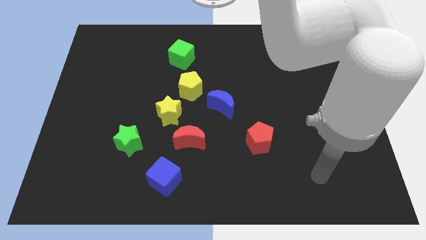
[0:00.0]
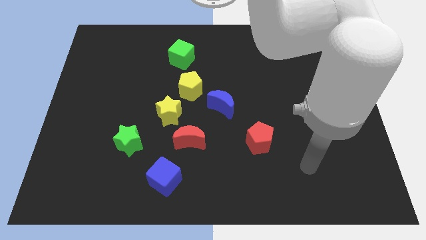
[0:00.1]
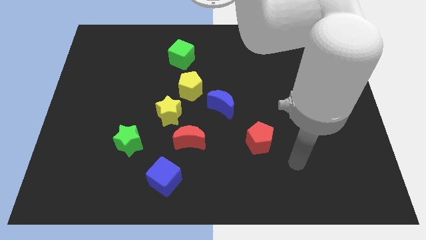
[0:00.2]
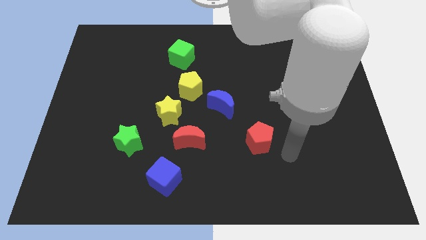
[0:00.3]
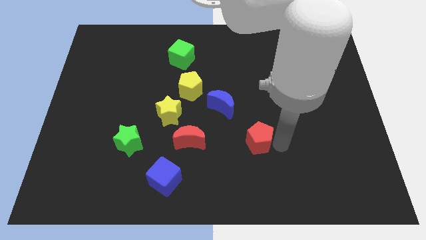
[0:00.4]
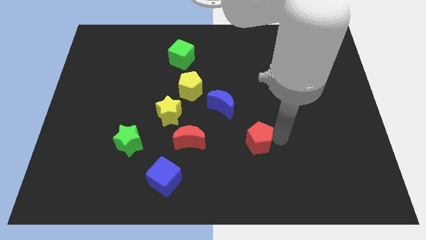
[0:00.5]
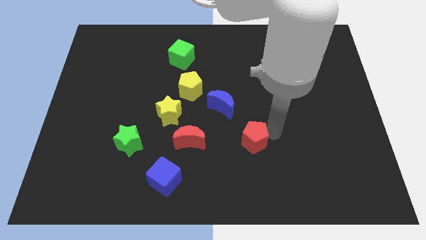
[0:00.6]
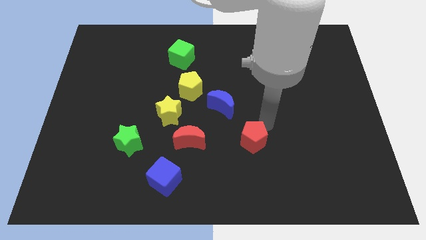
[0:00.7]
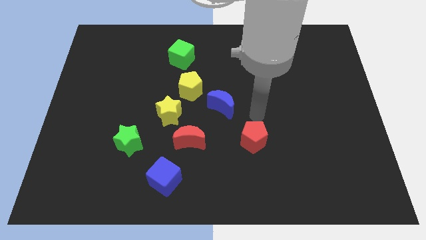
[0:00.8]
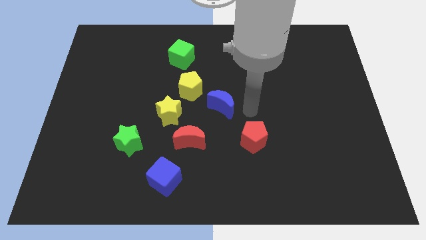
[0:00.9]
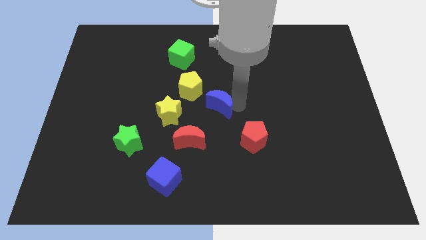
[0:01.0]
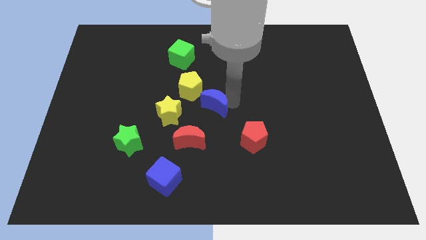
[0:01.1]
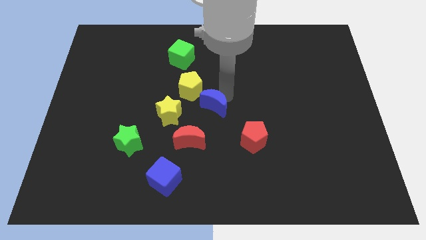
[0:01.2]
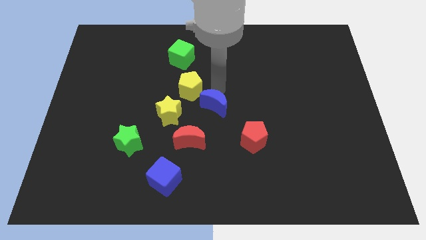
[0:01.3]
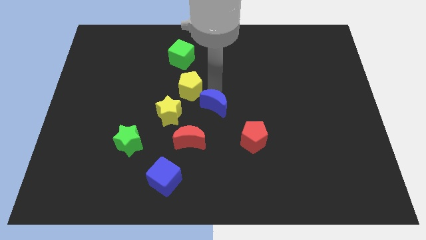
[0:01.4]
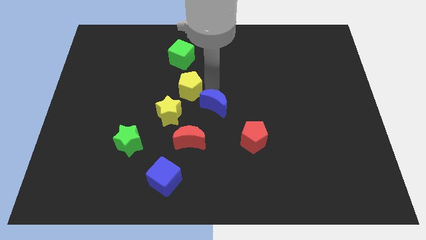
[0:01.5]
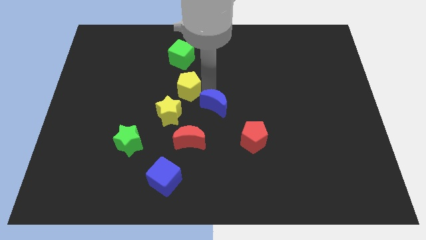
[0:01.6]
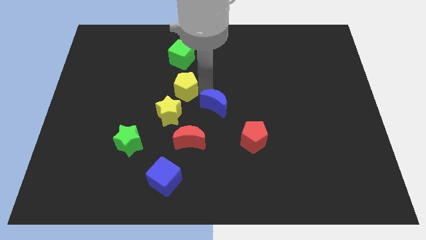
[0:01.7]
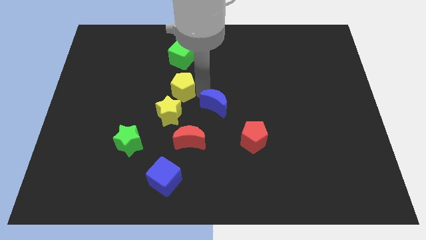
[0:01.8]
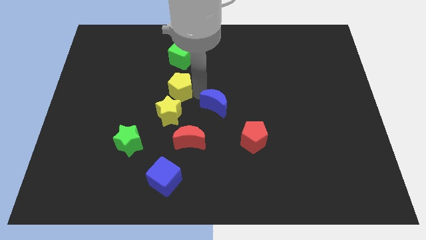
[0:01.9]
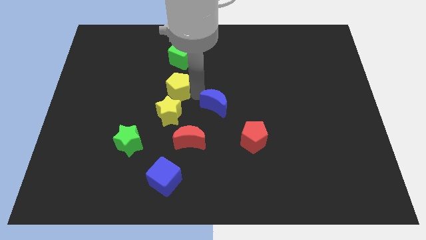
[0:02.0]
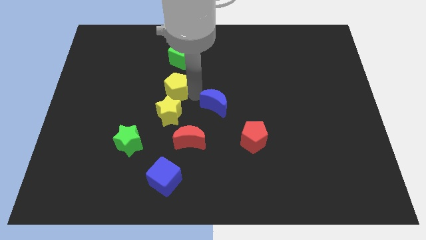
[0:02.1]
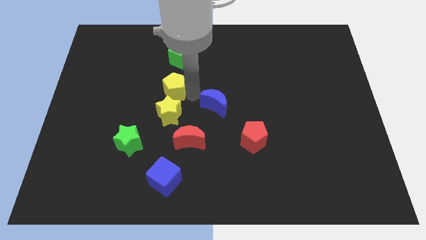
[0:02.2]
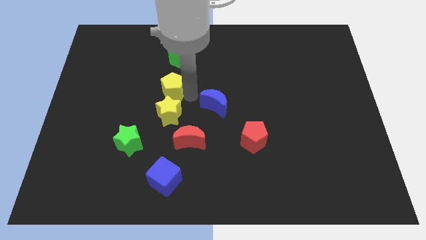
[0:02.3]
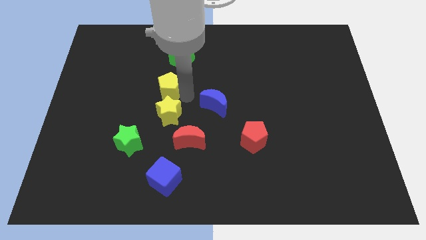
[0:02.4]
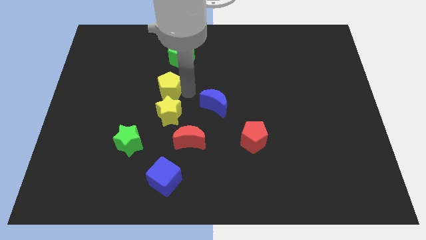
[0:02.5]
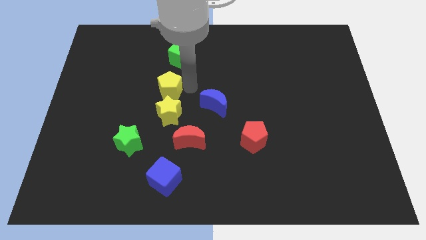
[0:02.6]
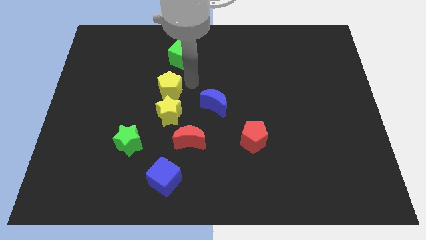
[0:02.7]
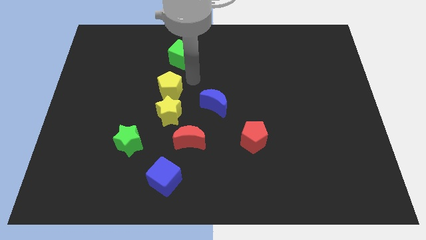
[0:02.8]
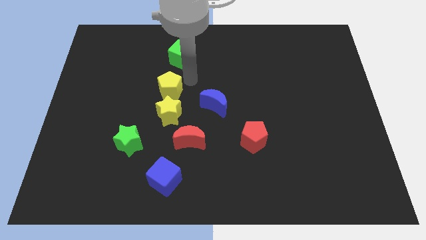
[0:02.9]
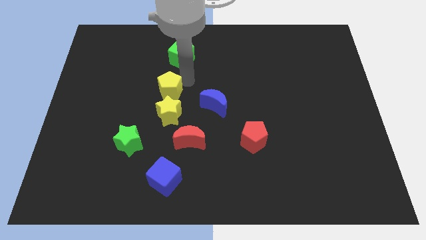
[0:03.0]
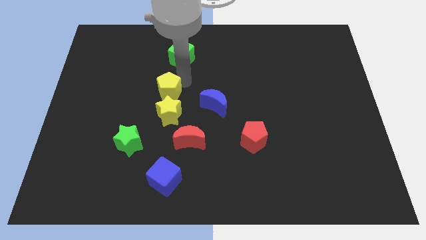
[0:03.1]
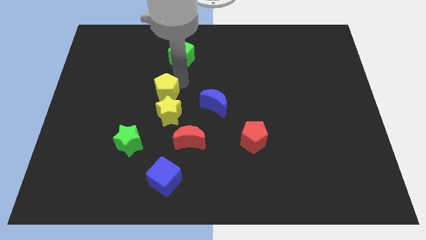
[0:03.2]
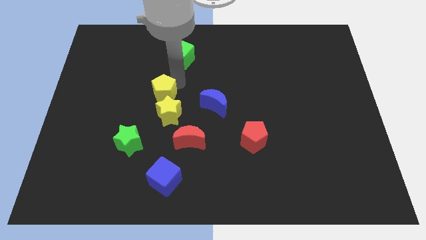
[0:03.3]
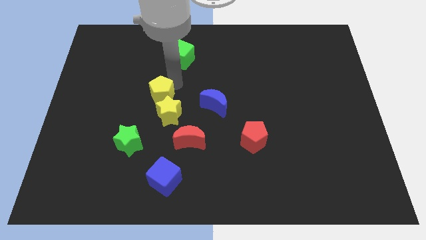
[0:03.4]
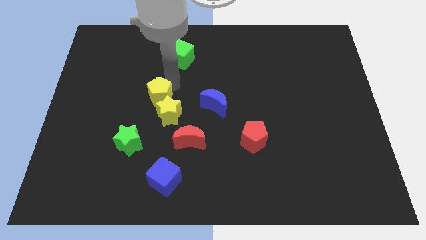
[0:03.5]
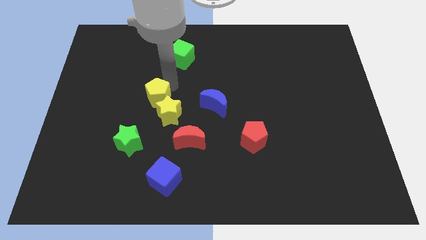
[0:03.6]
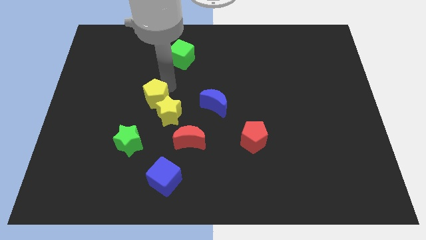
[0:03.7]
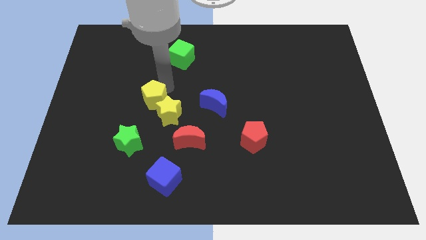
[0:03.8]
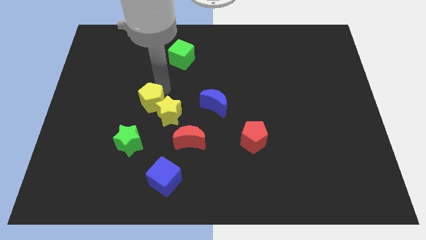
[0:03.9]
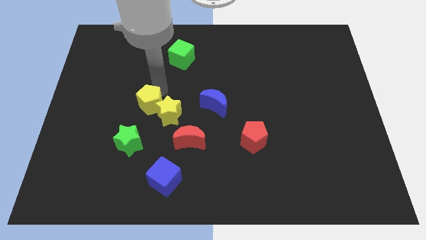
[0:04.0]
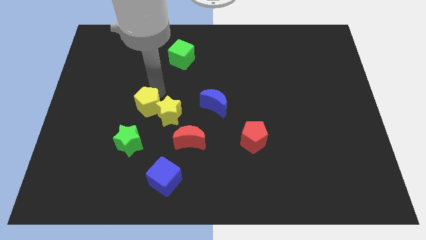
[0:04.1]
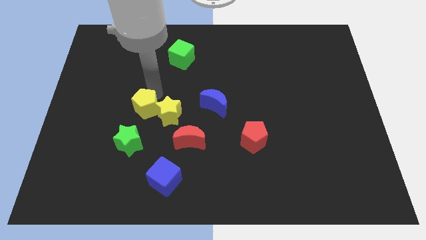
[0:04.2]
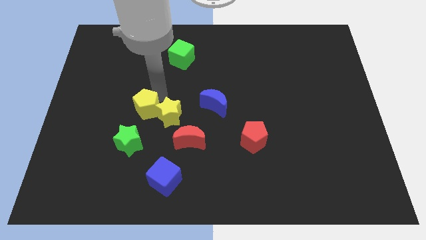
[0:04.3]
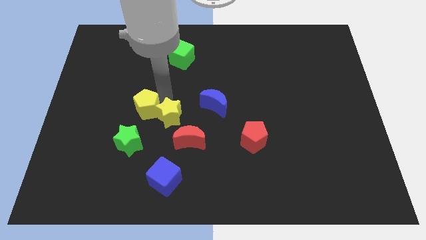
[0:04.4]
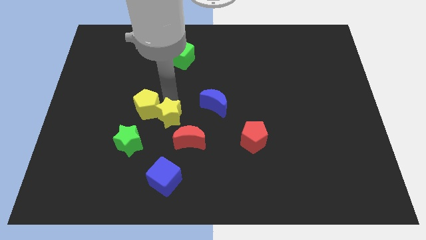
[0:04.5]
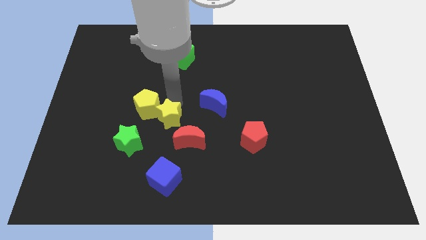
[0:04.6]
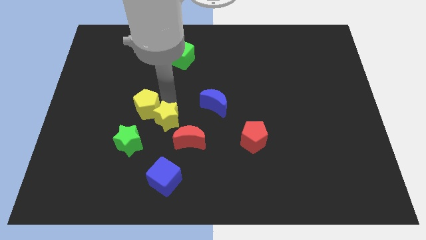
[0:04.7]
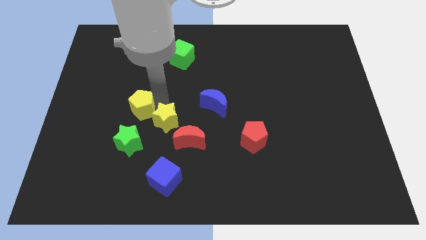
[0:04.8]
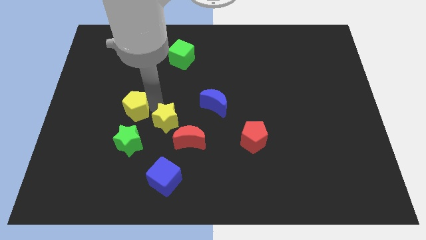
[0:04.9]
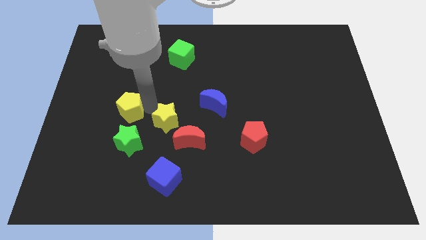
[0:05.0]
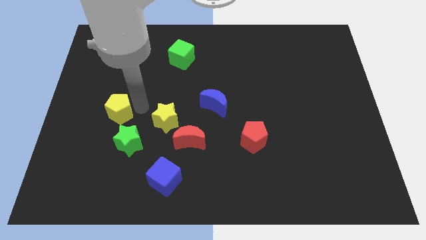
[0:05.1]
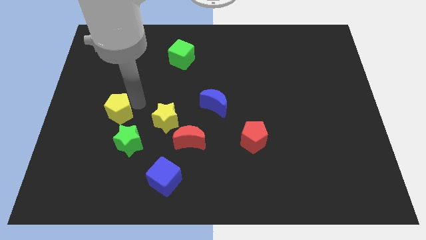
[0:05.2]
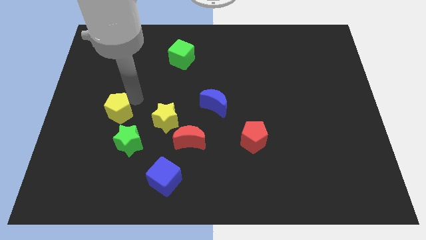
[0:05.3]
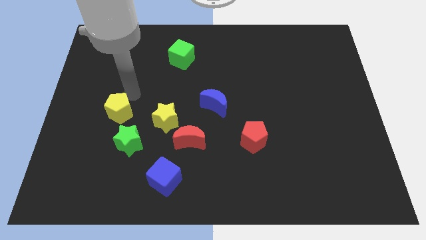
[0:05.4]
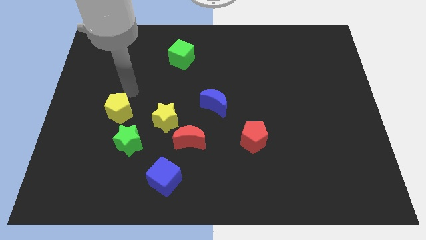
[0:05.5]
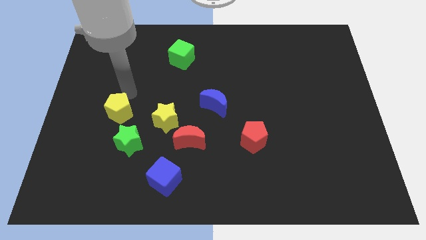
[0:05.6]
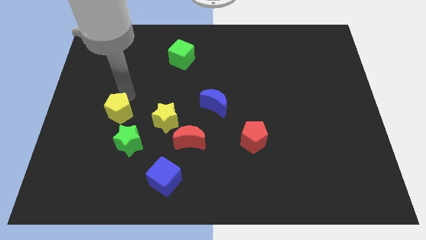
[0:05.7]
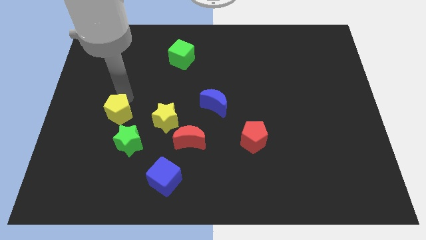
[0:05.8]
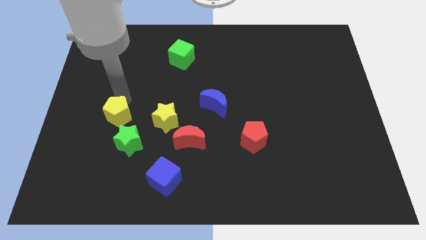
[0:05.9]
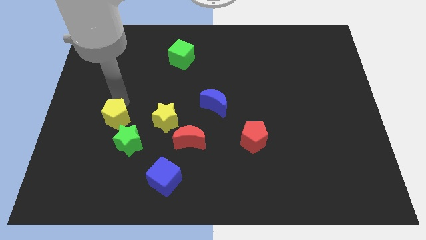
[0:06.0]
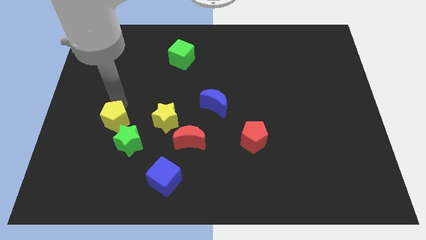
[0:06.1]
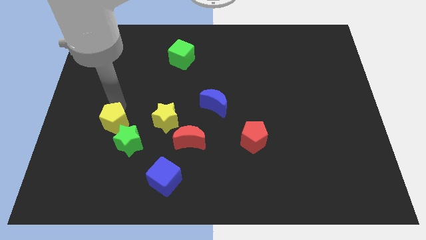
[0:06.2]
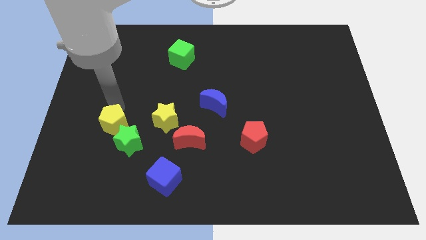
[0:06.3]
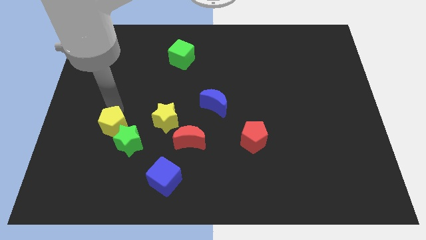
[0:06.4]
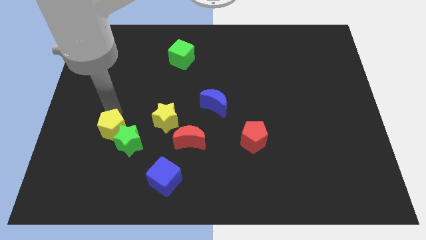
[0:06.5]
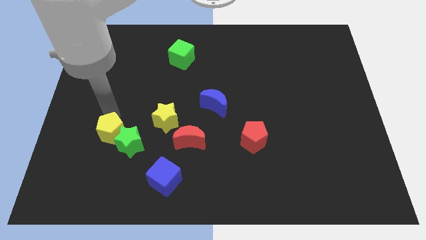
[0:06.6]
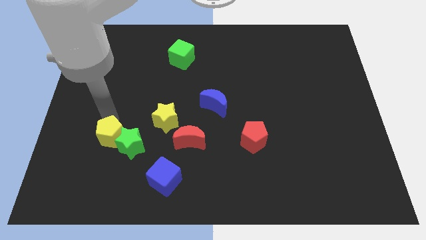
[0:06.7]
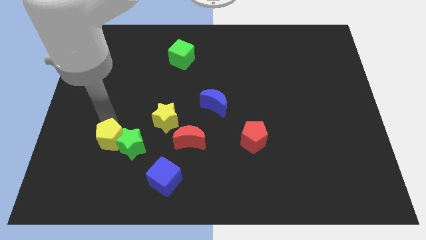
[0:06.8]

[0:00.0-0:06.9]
move the yellow pentagon to the bottom left of the green star

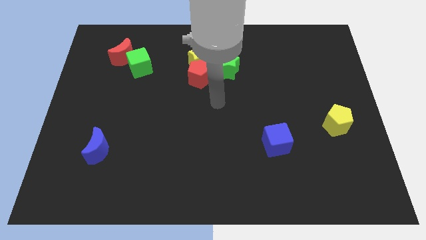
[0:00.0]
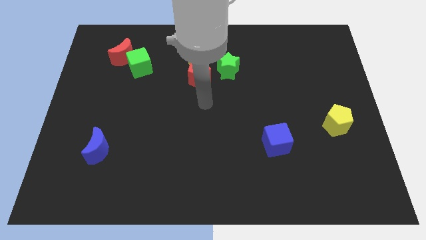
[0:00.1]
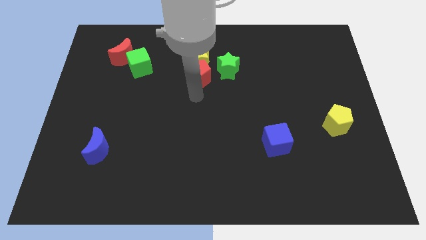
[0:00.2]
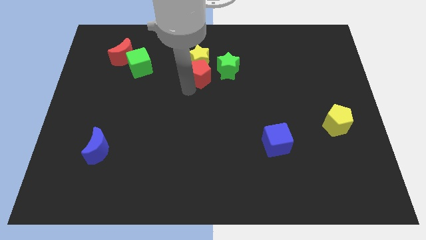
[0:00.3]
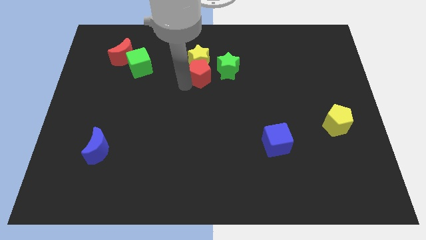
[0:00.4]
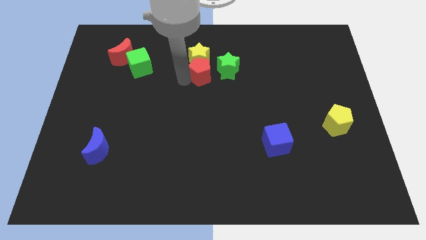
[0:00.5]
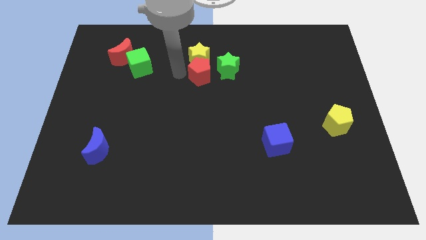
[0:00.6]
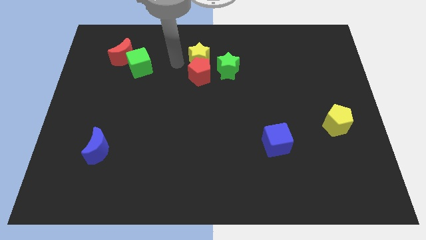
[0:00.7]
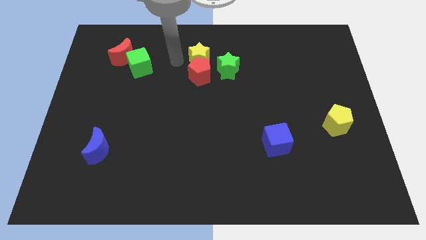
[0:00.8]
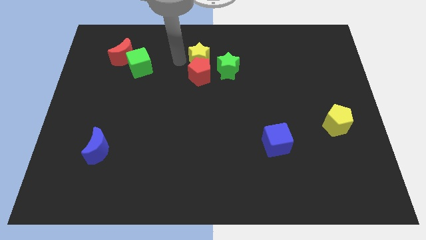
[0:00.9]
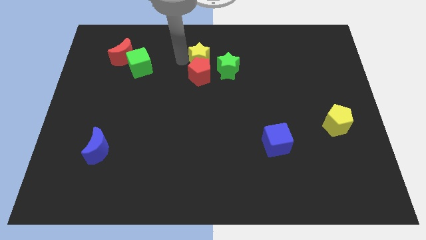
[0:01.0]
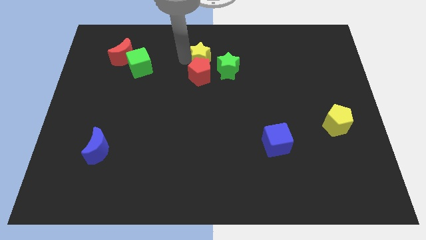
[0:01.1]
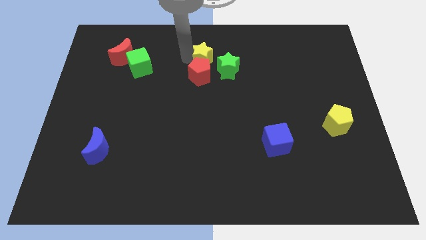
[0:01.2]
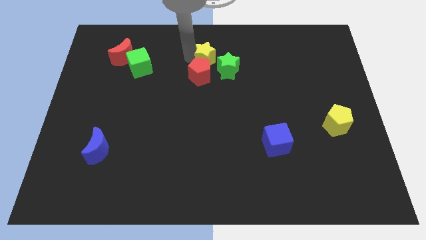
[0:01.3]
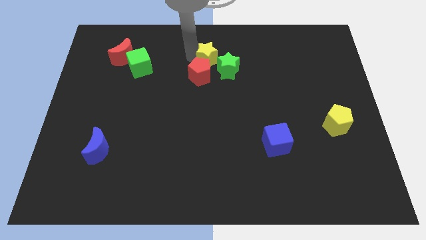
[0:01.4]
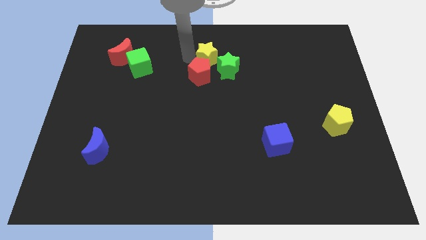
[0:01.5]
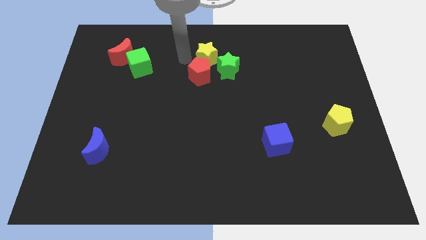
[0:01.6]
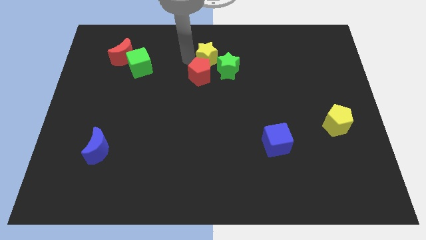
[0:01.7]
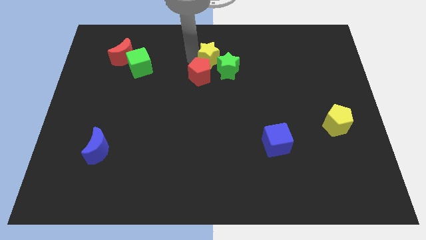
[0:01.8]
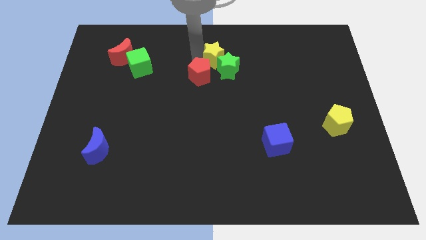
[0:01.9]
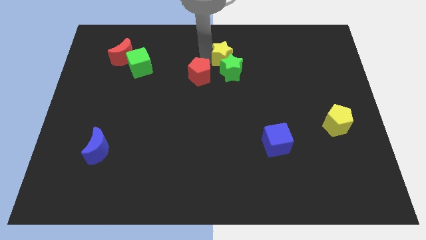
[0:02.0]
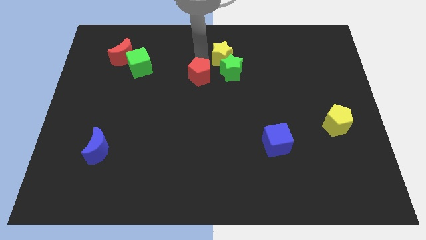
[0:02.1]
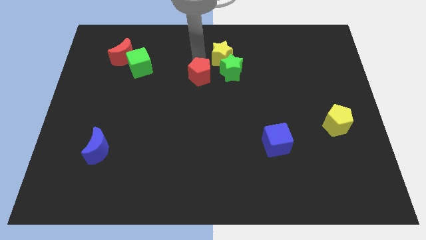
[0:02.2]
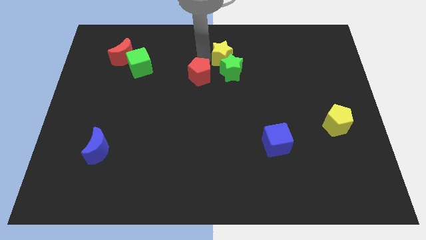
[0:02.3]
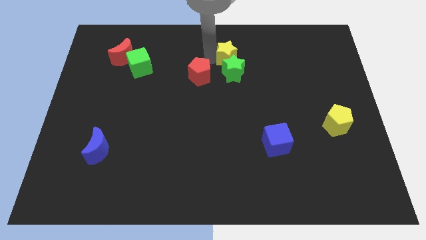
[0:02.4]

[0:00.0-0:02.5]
put the yellow star to the top right side of the green star
